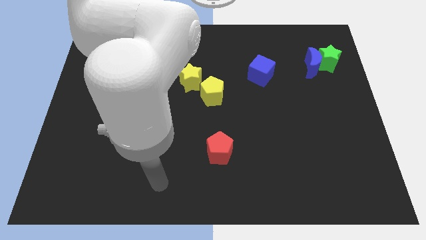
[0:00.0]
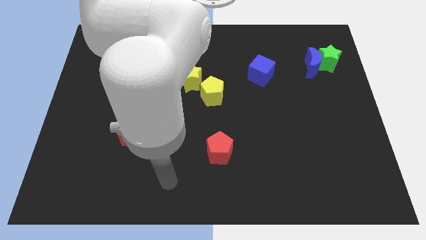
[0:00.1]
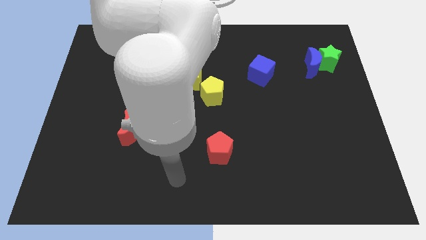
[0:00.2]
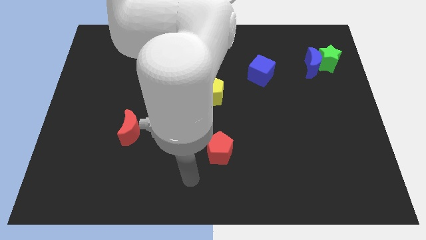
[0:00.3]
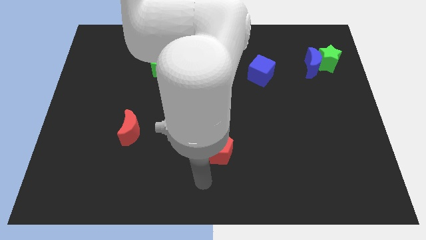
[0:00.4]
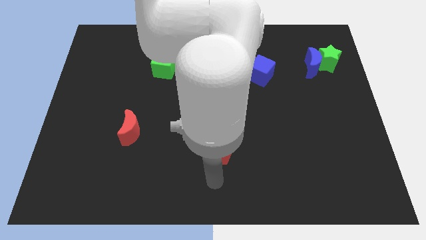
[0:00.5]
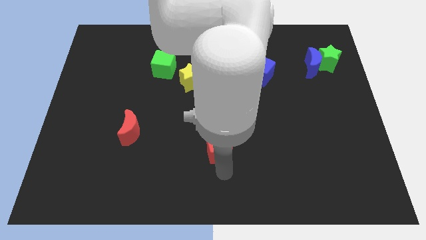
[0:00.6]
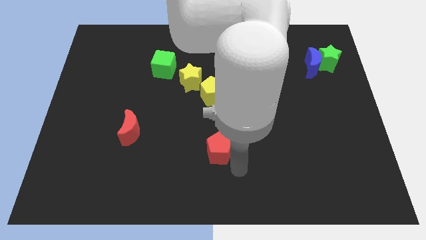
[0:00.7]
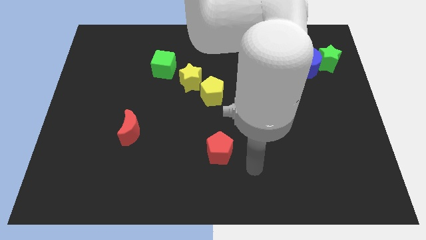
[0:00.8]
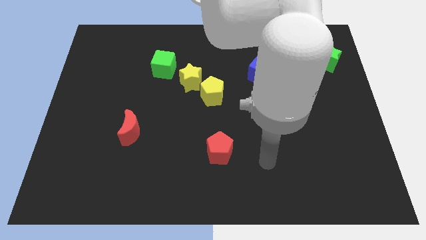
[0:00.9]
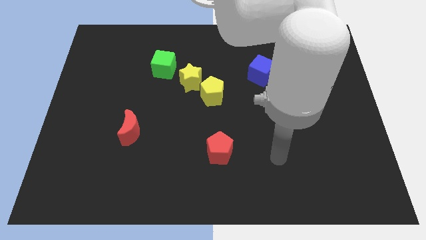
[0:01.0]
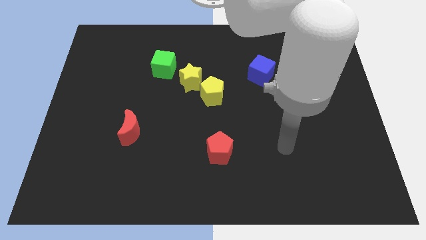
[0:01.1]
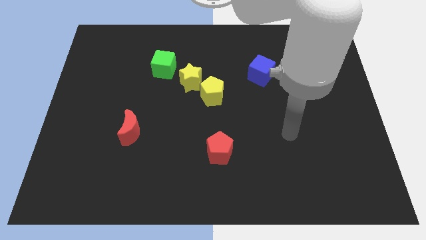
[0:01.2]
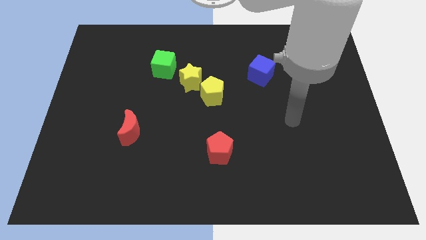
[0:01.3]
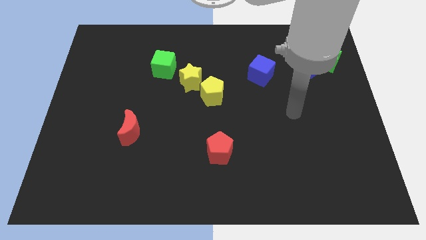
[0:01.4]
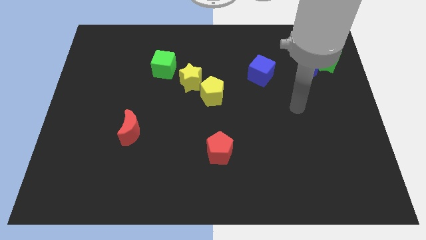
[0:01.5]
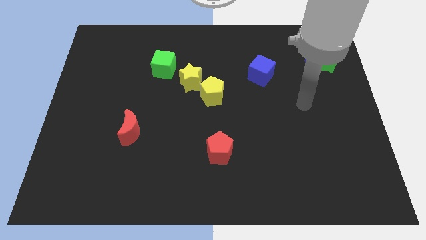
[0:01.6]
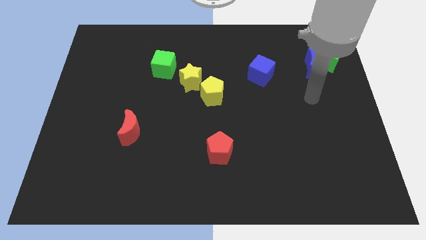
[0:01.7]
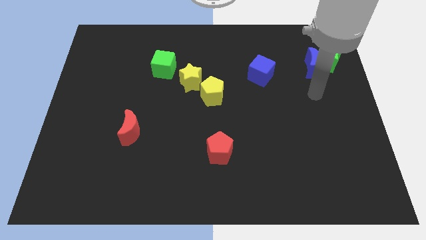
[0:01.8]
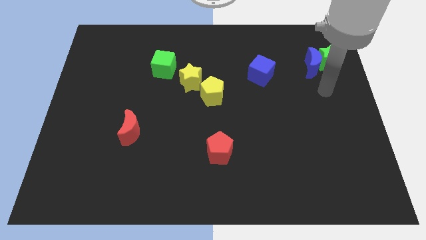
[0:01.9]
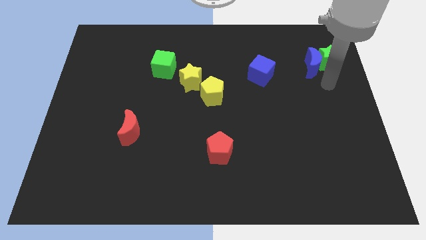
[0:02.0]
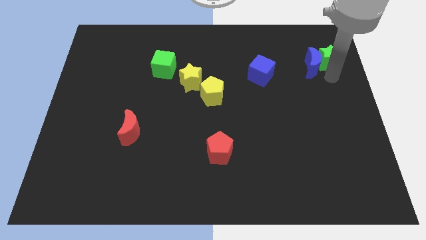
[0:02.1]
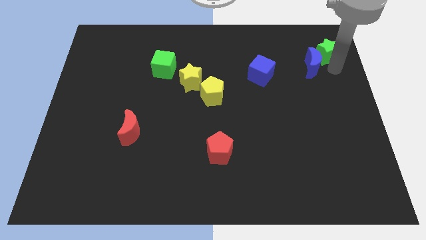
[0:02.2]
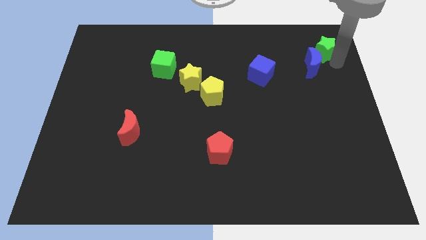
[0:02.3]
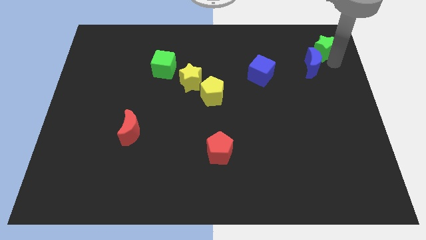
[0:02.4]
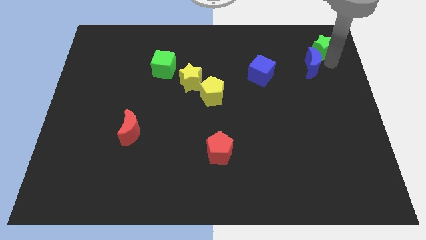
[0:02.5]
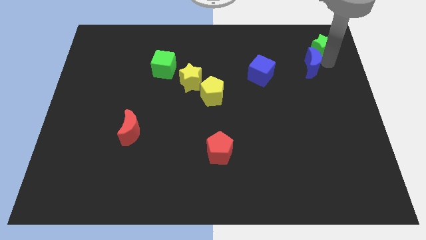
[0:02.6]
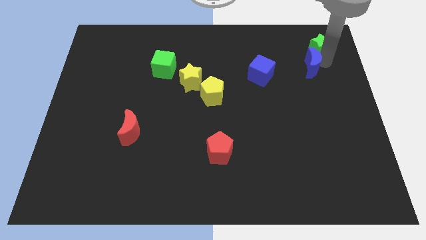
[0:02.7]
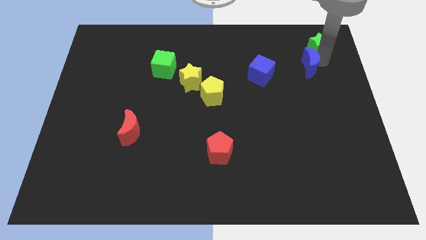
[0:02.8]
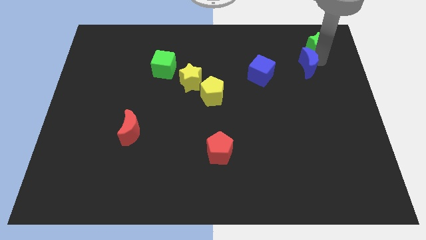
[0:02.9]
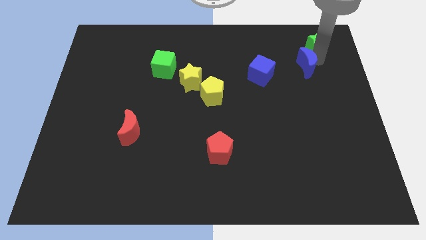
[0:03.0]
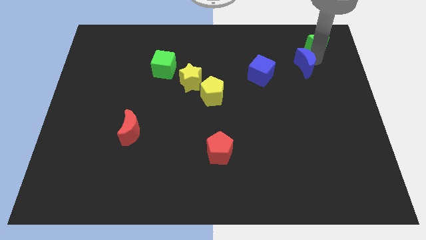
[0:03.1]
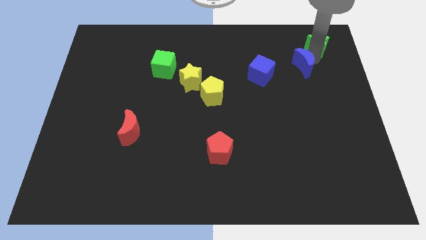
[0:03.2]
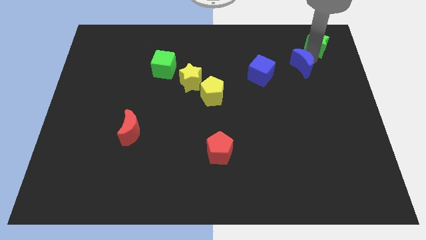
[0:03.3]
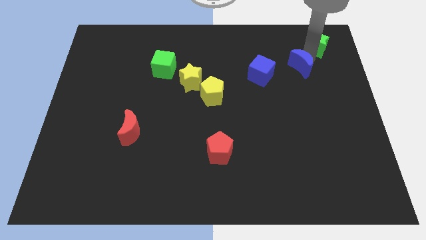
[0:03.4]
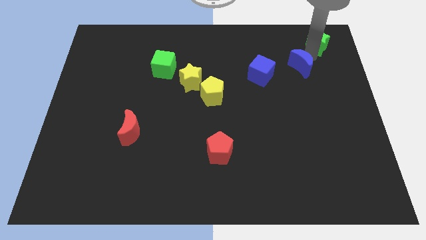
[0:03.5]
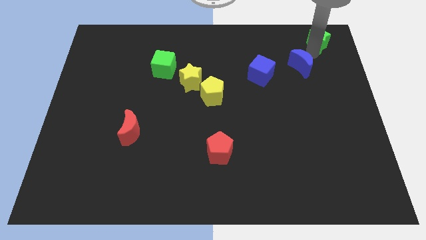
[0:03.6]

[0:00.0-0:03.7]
move the blue moon away from the green star

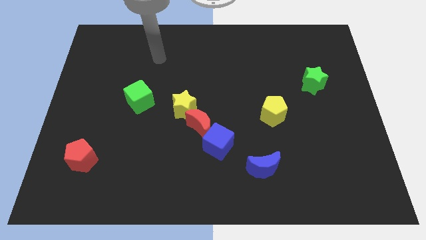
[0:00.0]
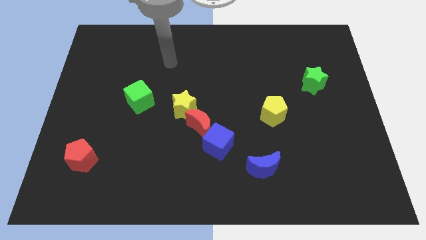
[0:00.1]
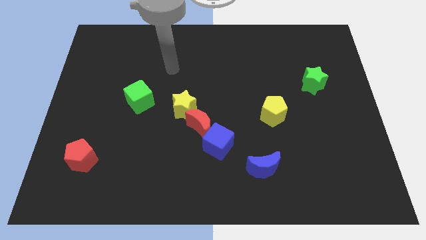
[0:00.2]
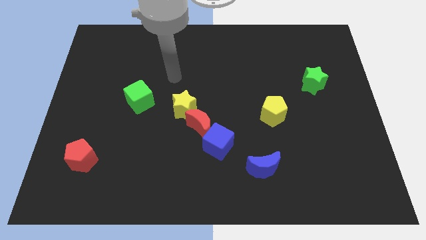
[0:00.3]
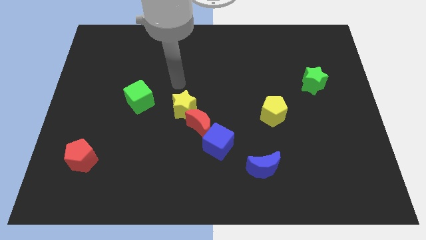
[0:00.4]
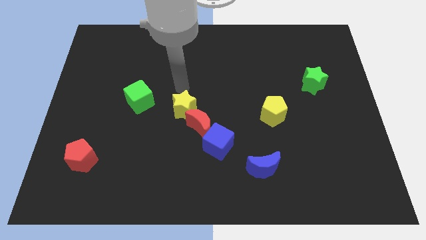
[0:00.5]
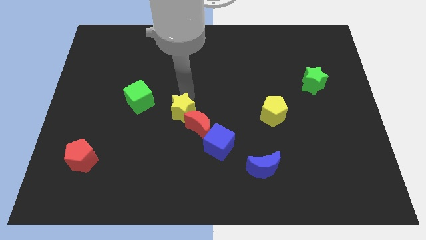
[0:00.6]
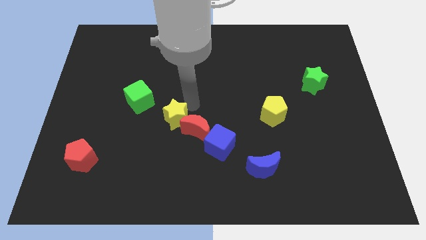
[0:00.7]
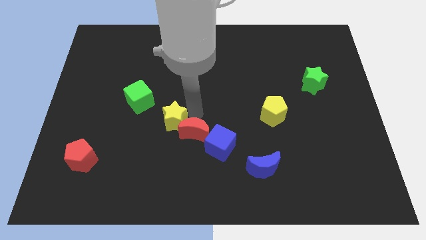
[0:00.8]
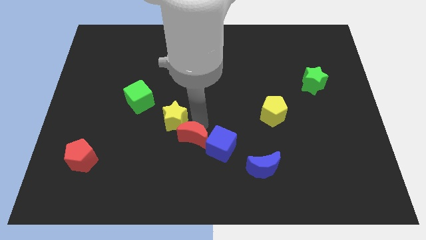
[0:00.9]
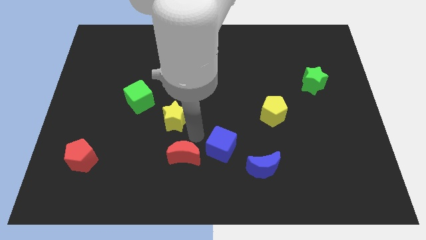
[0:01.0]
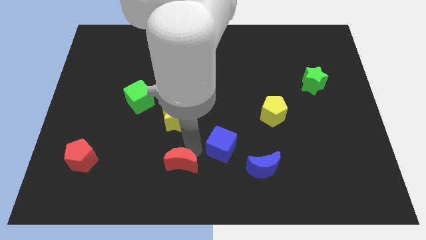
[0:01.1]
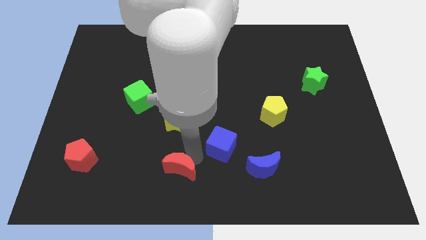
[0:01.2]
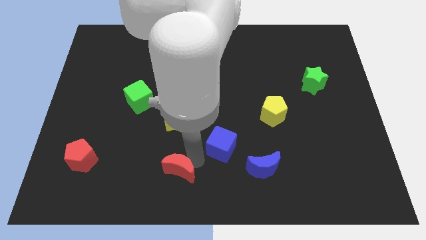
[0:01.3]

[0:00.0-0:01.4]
pull the blue cube apart from the red moon

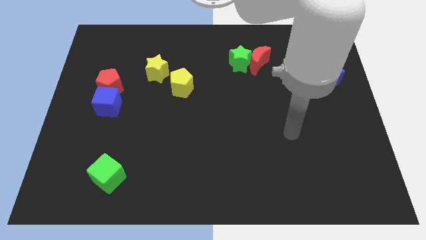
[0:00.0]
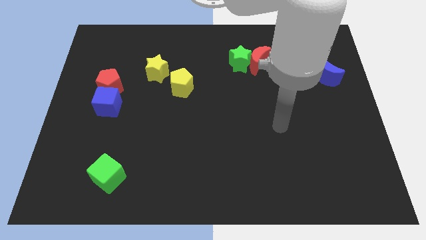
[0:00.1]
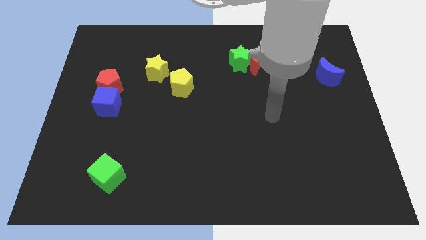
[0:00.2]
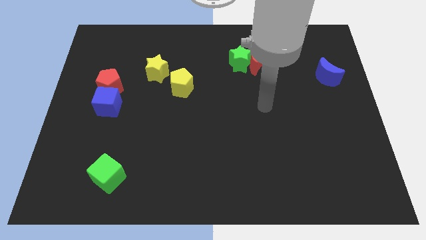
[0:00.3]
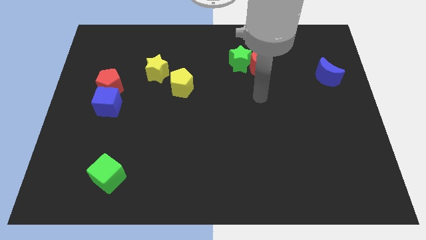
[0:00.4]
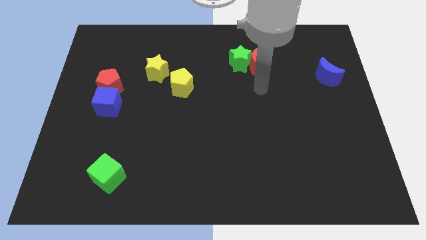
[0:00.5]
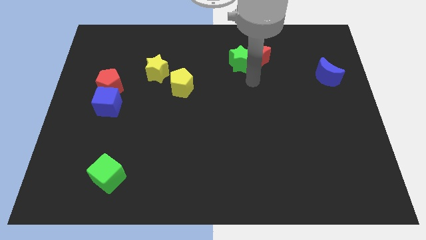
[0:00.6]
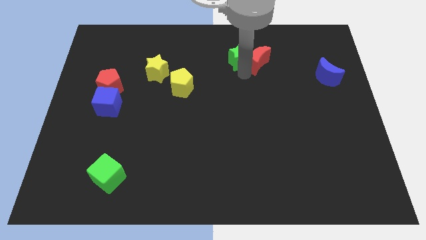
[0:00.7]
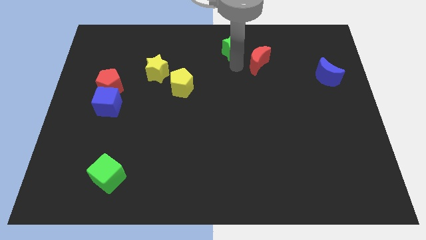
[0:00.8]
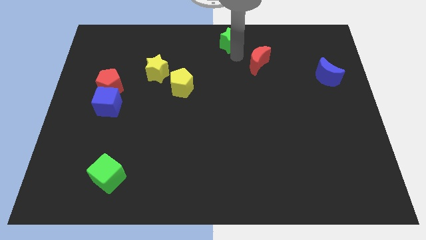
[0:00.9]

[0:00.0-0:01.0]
pull the red moon apart from the green star

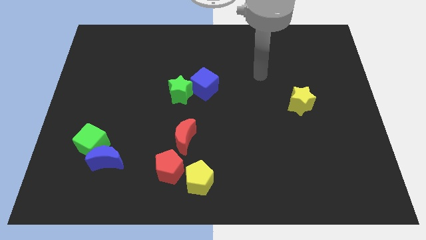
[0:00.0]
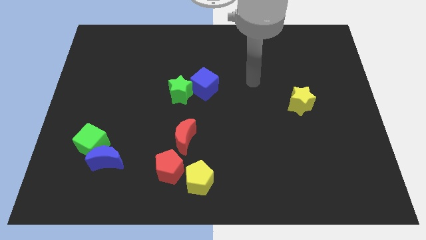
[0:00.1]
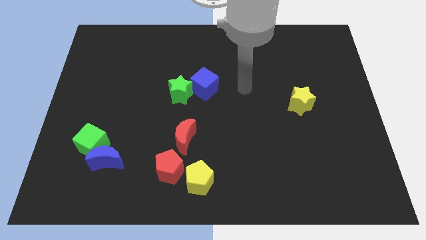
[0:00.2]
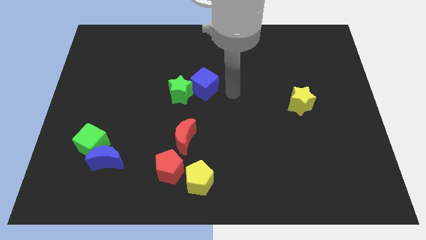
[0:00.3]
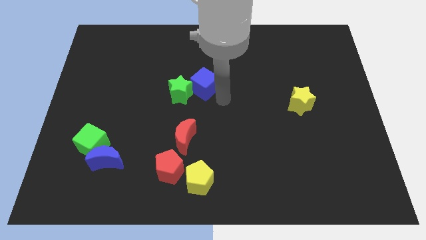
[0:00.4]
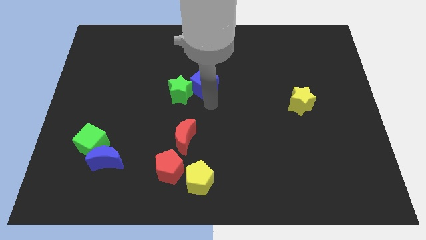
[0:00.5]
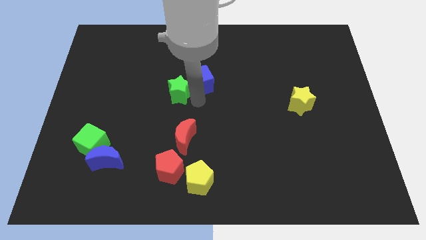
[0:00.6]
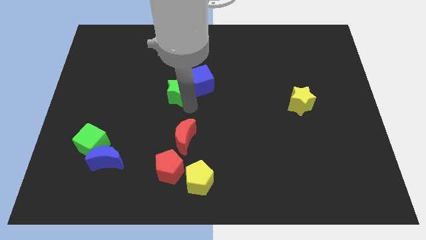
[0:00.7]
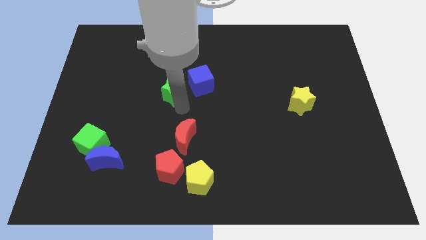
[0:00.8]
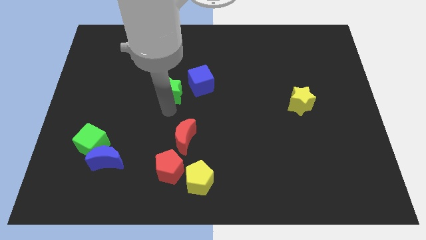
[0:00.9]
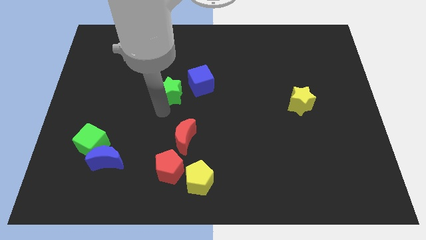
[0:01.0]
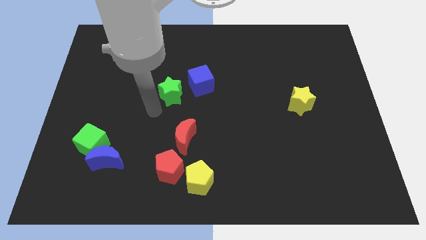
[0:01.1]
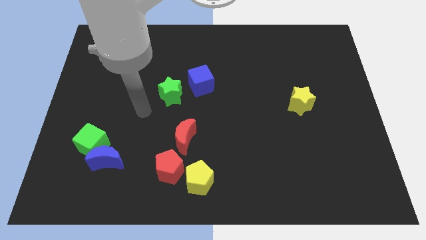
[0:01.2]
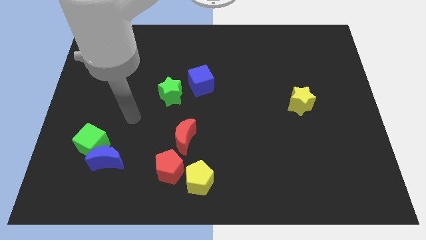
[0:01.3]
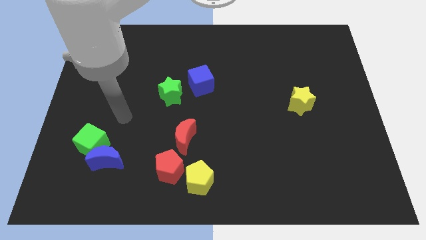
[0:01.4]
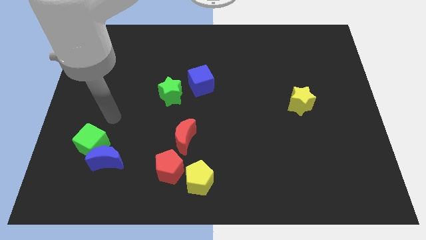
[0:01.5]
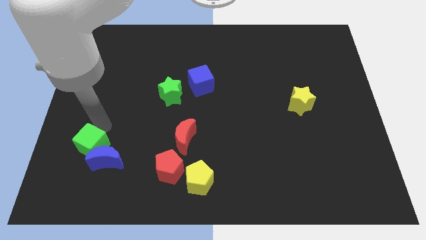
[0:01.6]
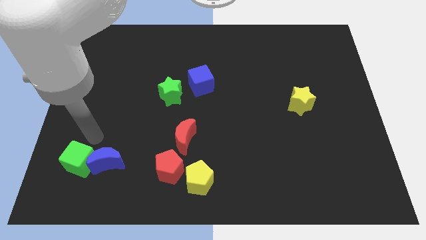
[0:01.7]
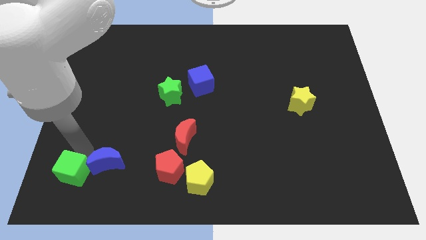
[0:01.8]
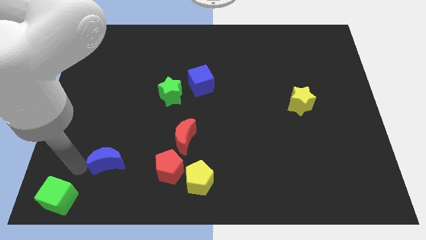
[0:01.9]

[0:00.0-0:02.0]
move the blue moon away from the green cube

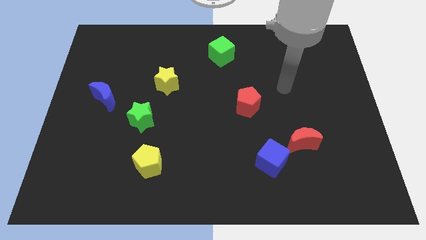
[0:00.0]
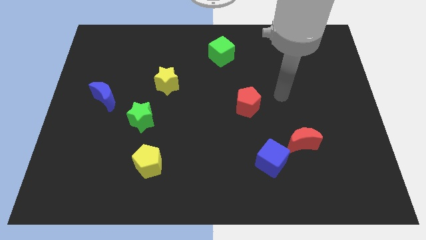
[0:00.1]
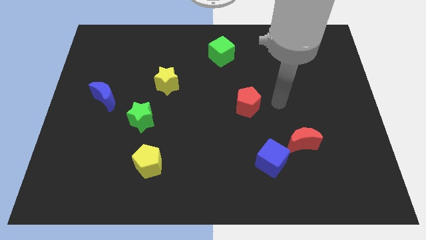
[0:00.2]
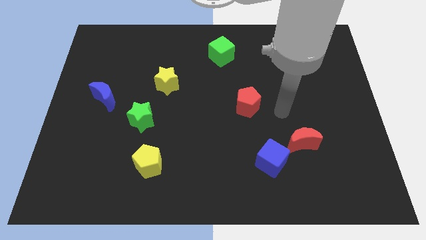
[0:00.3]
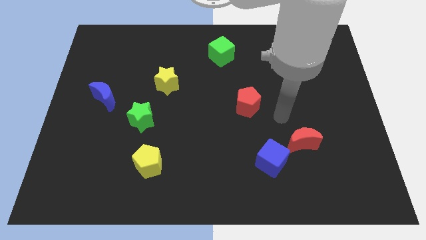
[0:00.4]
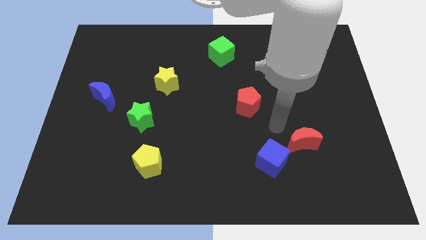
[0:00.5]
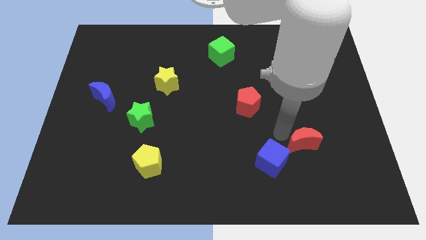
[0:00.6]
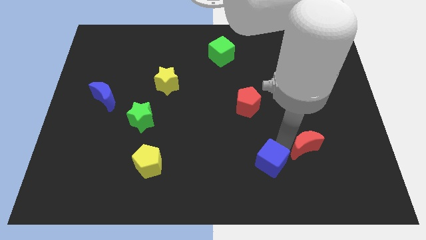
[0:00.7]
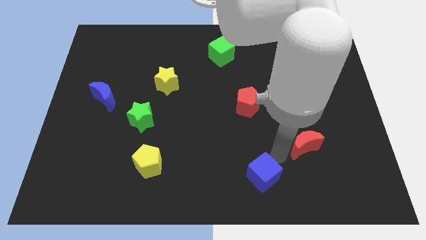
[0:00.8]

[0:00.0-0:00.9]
pull the red moon apart from the blue cube

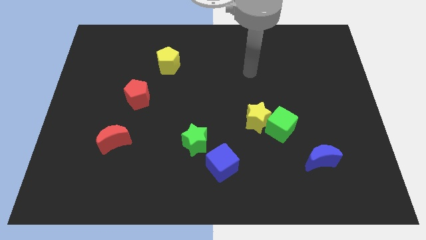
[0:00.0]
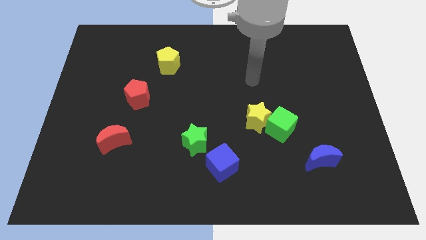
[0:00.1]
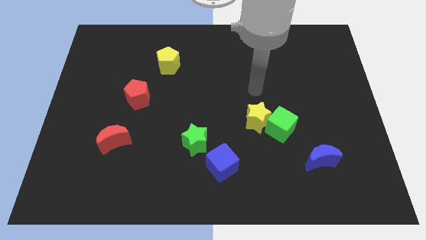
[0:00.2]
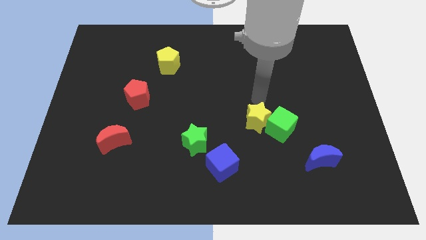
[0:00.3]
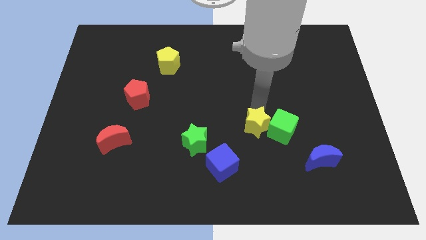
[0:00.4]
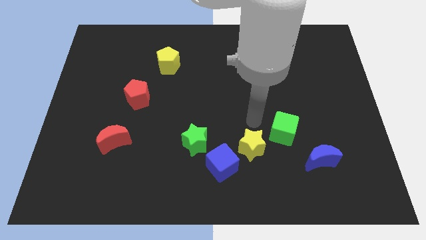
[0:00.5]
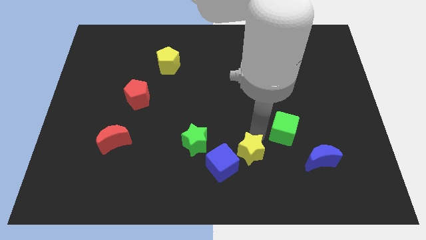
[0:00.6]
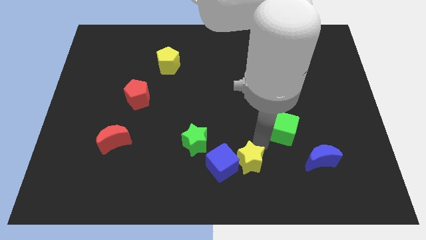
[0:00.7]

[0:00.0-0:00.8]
move the green cube away from the yellow star
